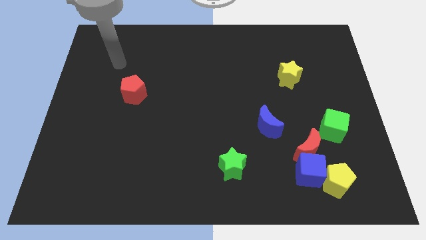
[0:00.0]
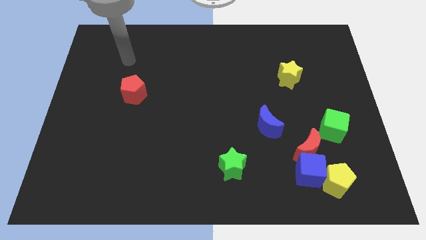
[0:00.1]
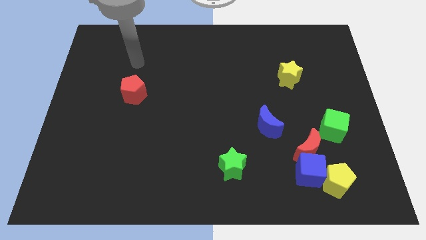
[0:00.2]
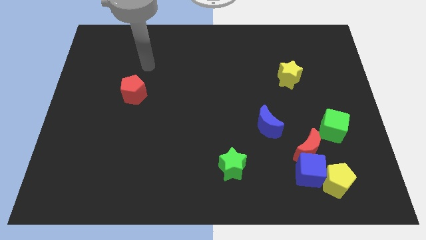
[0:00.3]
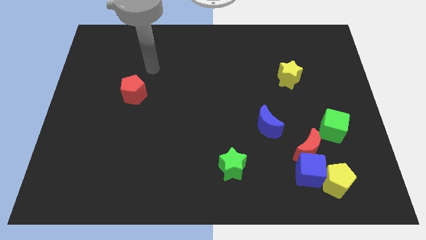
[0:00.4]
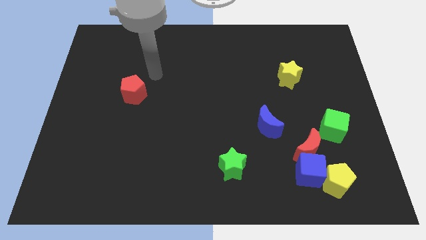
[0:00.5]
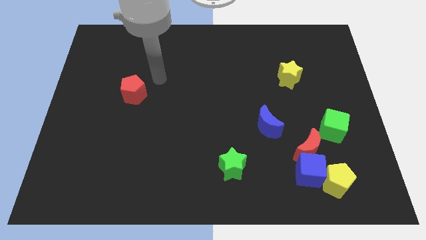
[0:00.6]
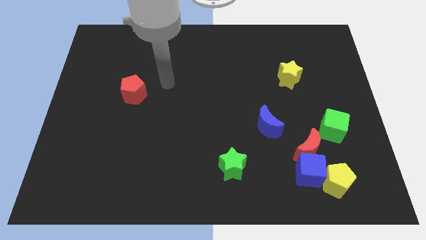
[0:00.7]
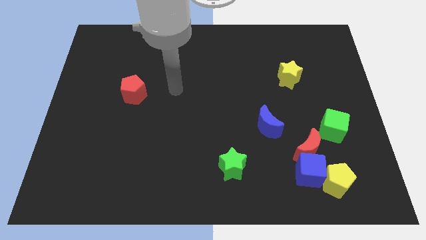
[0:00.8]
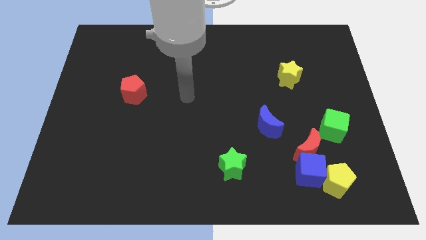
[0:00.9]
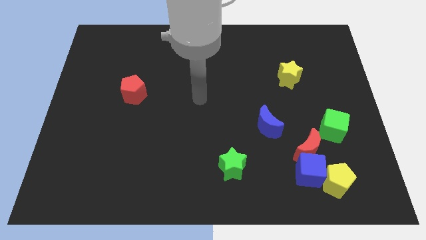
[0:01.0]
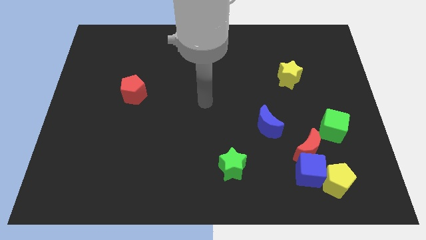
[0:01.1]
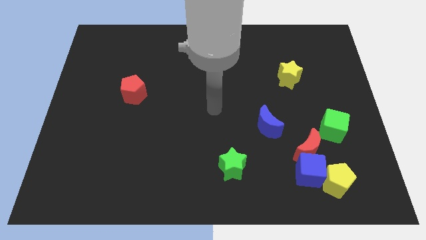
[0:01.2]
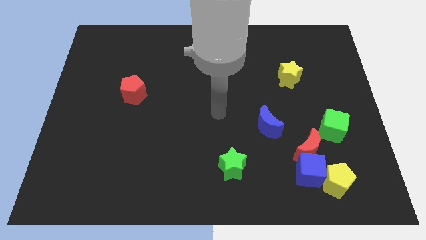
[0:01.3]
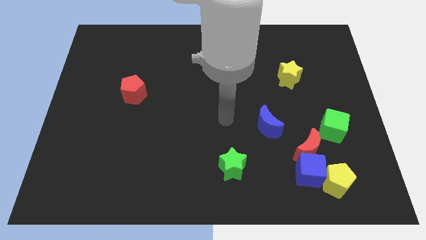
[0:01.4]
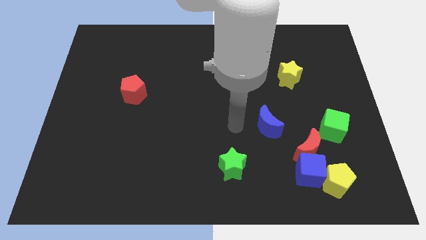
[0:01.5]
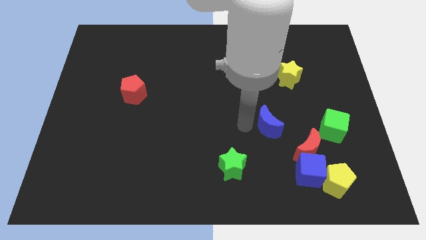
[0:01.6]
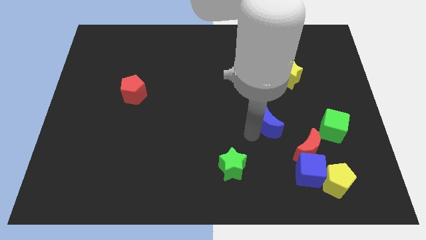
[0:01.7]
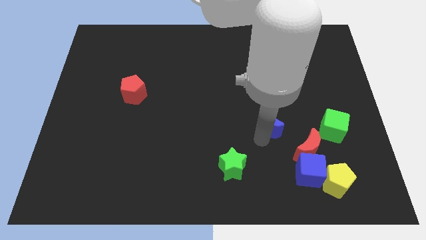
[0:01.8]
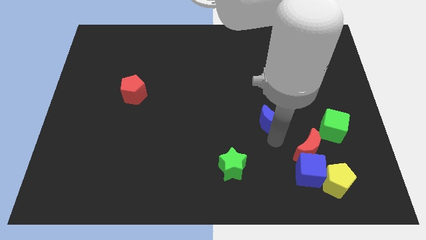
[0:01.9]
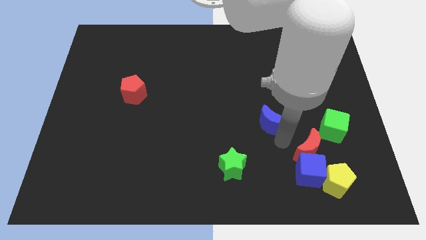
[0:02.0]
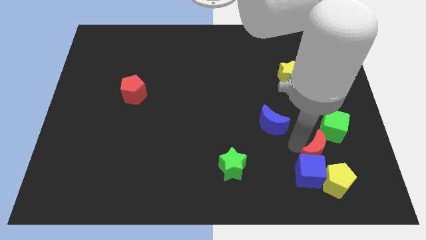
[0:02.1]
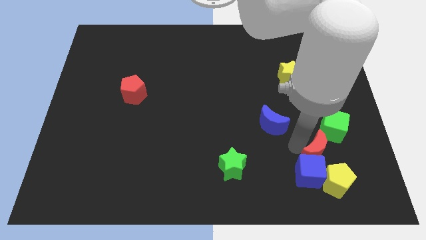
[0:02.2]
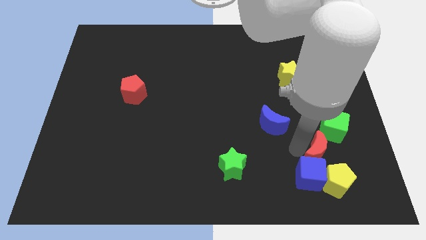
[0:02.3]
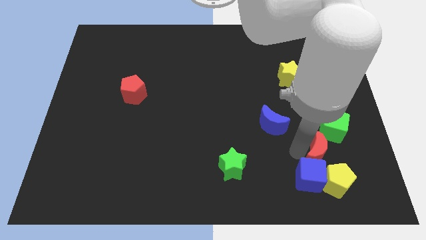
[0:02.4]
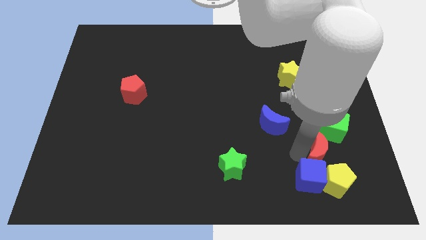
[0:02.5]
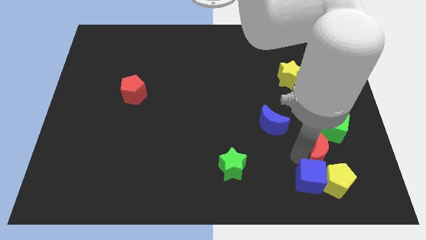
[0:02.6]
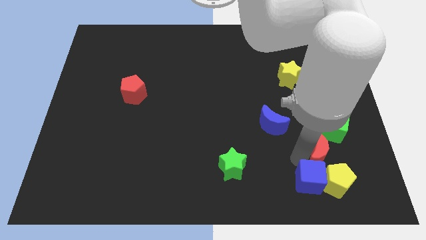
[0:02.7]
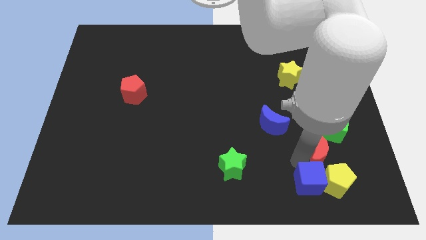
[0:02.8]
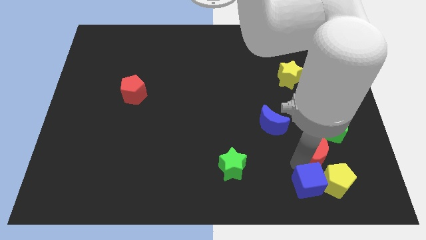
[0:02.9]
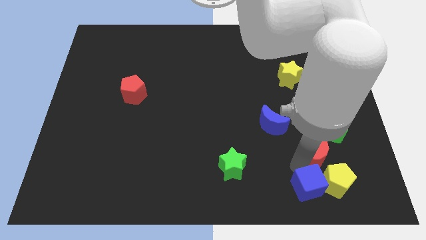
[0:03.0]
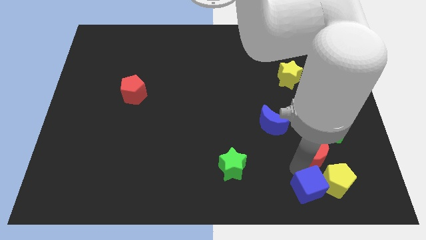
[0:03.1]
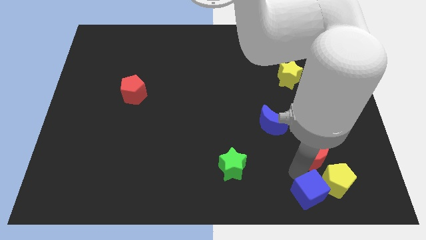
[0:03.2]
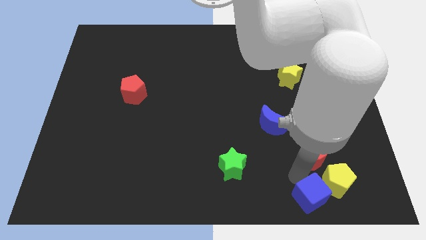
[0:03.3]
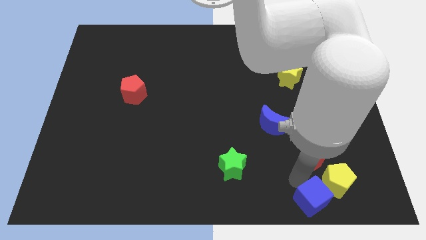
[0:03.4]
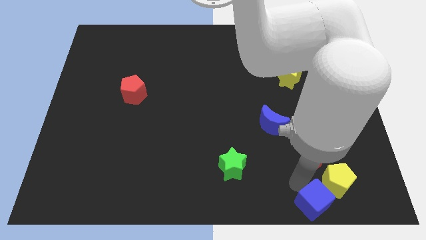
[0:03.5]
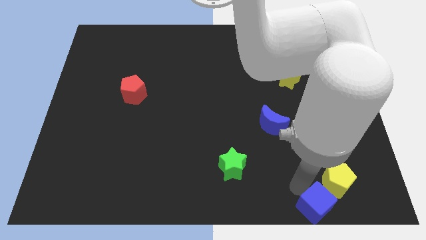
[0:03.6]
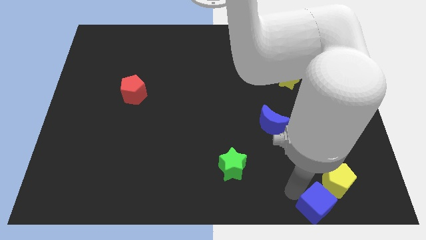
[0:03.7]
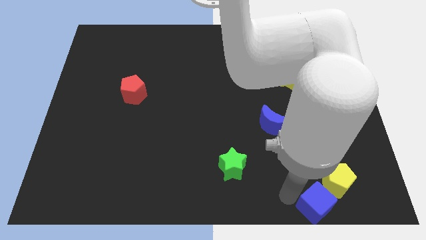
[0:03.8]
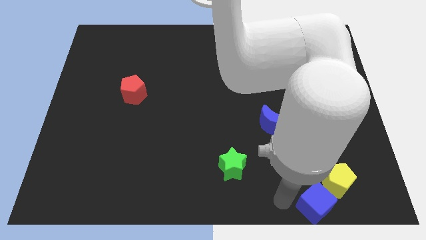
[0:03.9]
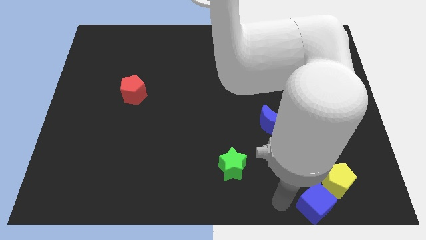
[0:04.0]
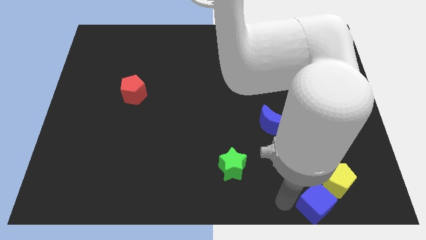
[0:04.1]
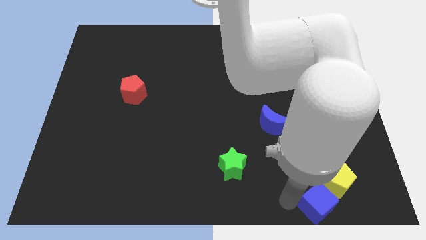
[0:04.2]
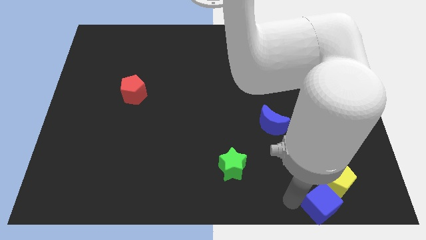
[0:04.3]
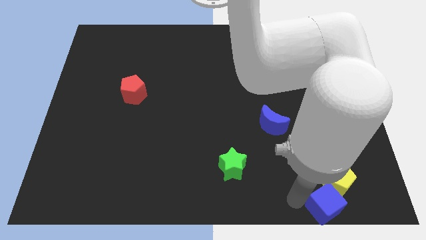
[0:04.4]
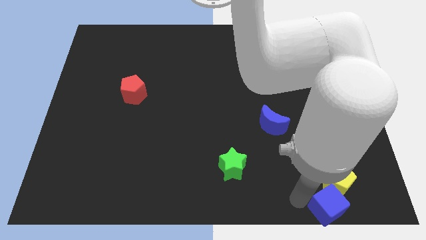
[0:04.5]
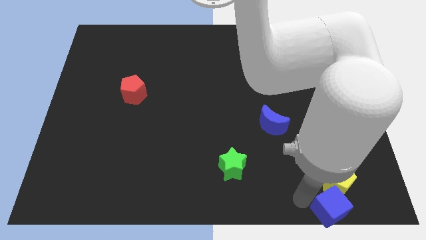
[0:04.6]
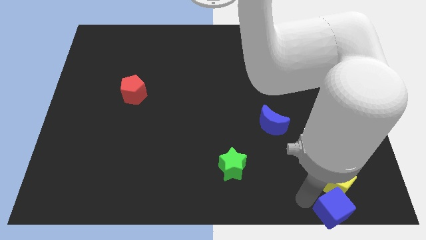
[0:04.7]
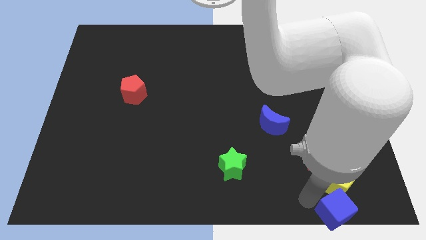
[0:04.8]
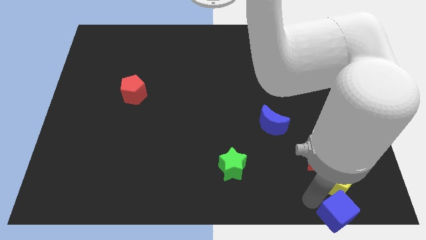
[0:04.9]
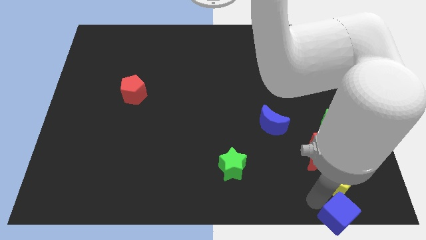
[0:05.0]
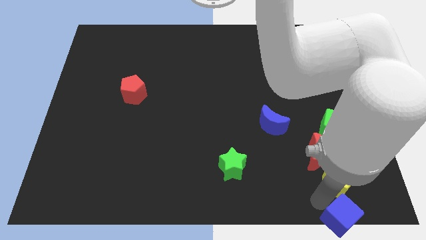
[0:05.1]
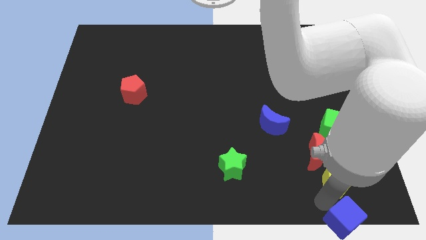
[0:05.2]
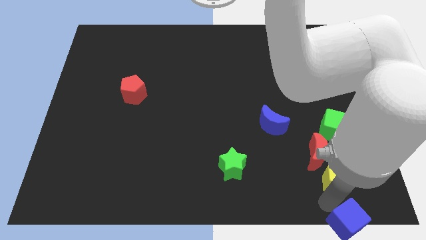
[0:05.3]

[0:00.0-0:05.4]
push the blue cube to the bottom right

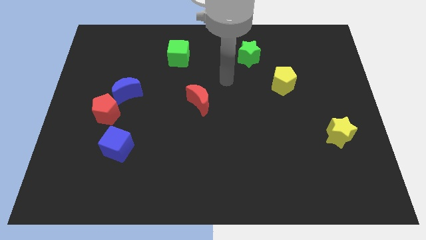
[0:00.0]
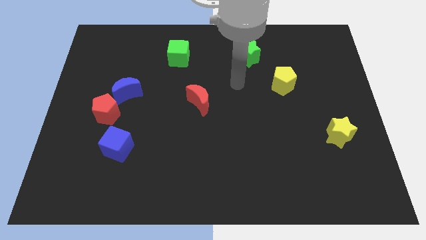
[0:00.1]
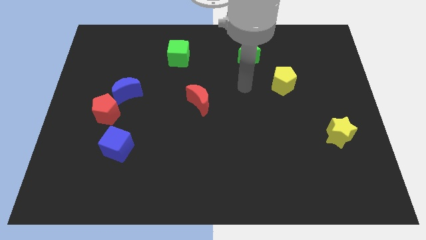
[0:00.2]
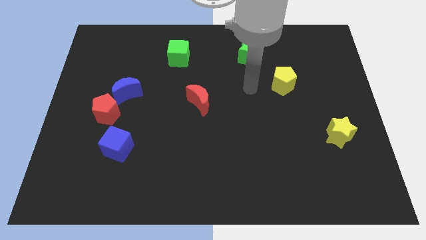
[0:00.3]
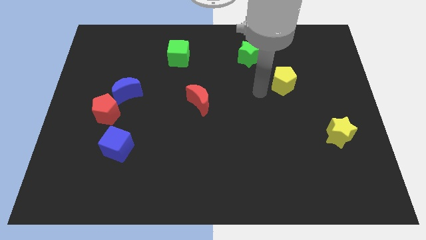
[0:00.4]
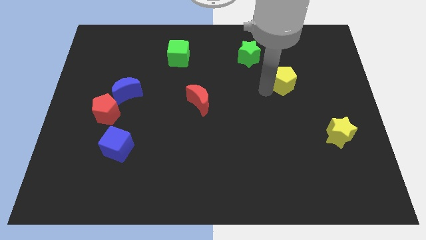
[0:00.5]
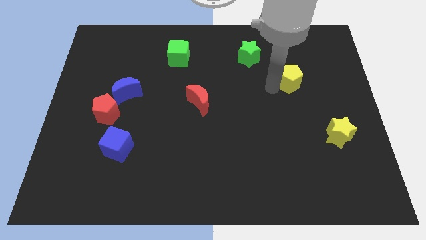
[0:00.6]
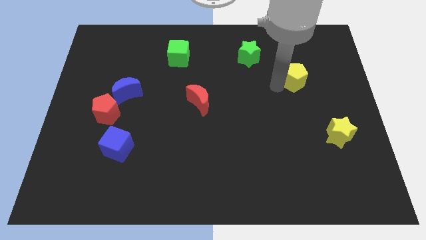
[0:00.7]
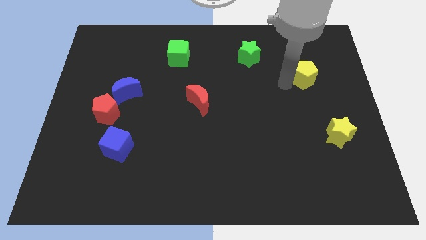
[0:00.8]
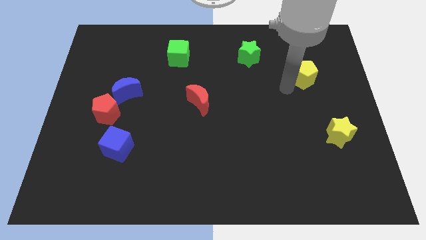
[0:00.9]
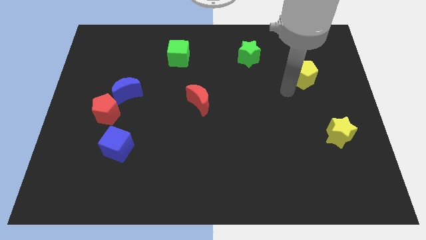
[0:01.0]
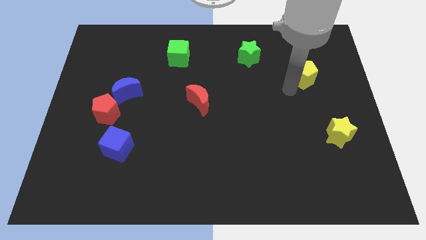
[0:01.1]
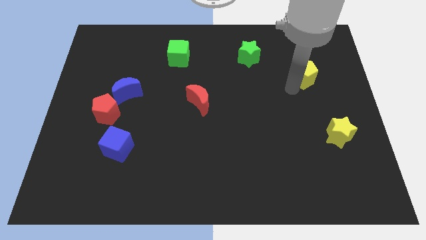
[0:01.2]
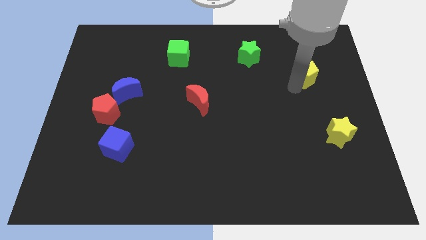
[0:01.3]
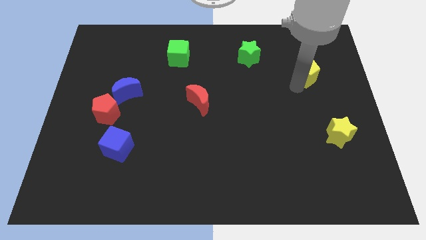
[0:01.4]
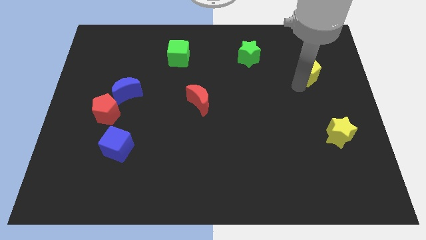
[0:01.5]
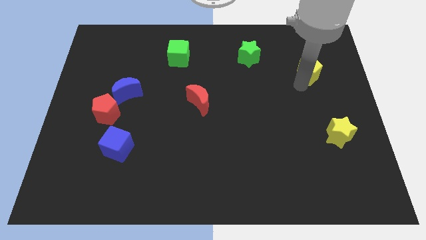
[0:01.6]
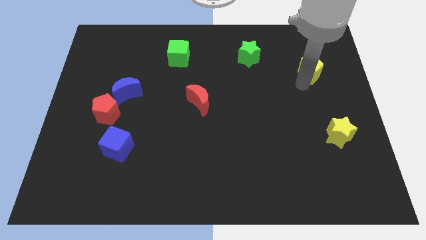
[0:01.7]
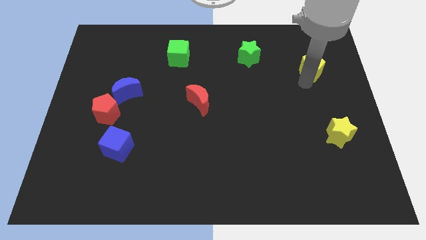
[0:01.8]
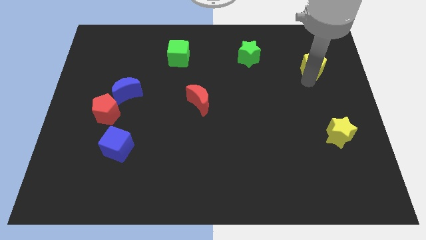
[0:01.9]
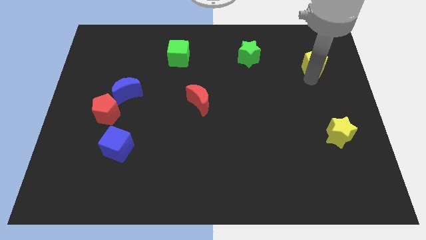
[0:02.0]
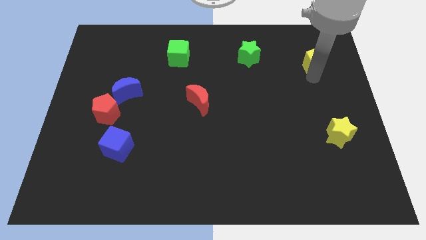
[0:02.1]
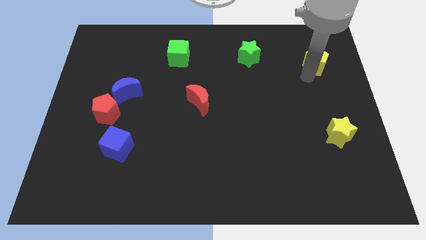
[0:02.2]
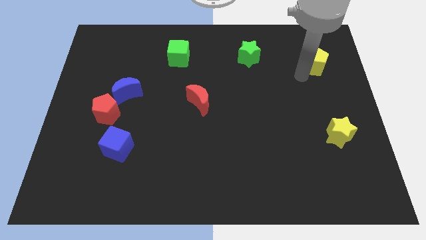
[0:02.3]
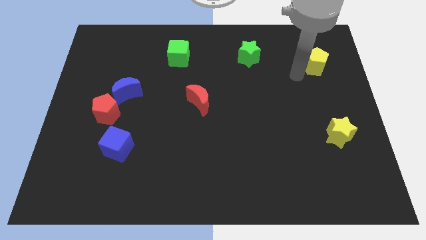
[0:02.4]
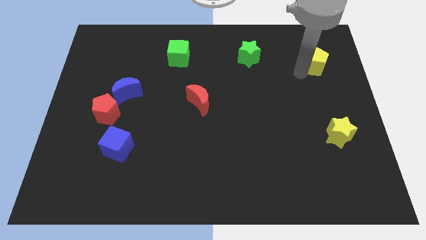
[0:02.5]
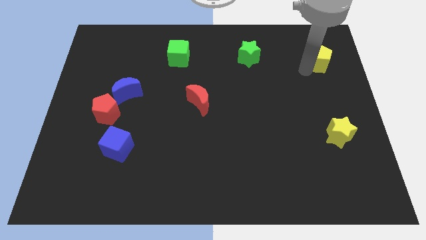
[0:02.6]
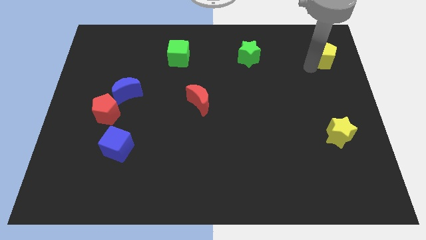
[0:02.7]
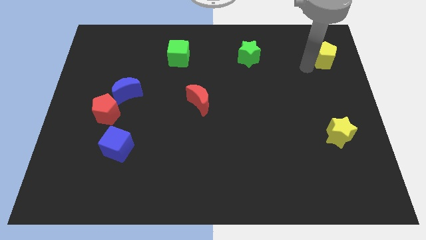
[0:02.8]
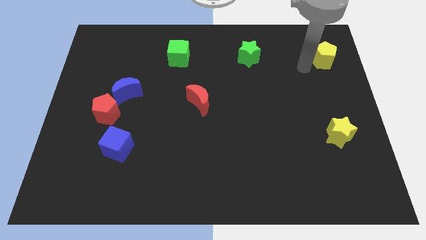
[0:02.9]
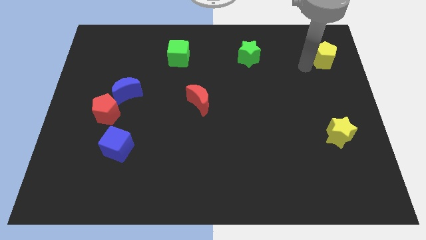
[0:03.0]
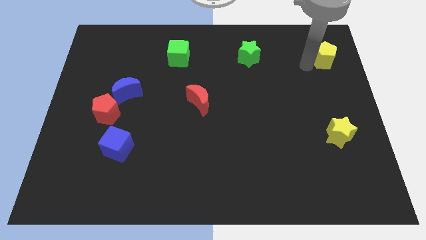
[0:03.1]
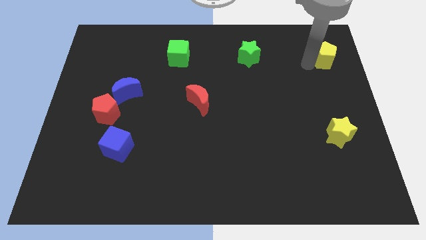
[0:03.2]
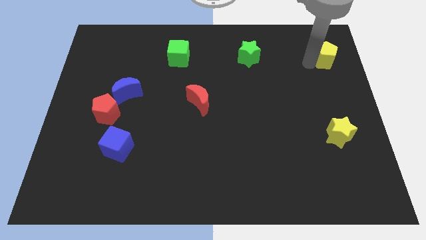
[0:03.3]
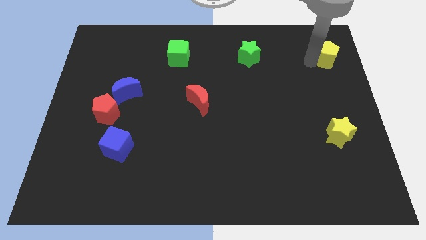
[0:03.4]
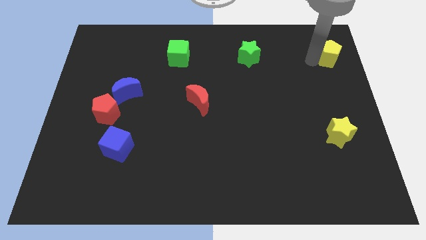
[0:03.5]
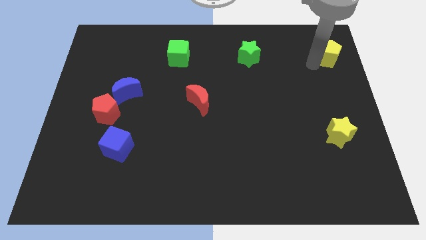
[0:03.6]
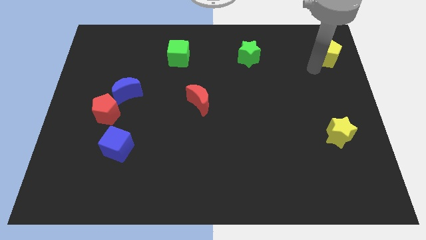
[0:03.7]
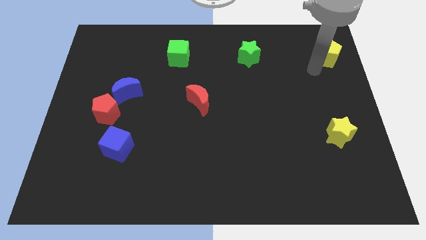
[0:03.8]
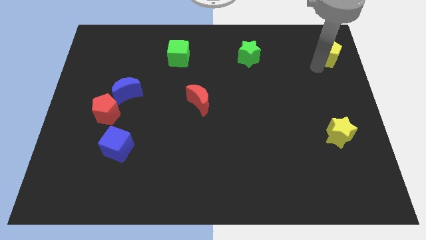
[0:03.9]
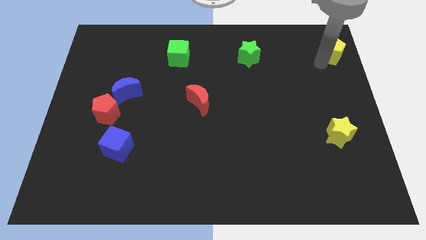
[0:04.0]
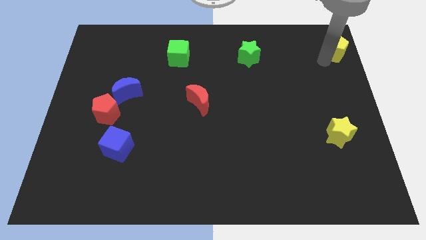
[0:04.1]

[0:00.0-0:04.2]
move the yellow pentagon to the top right corner
